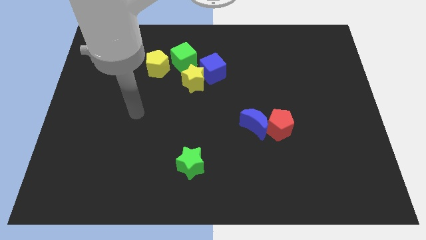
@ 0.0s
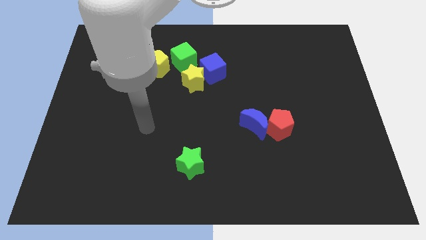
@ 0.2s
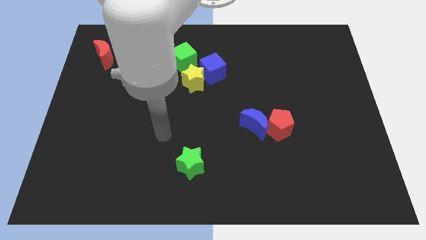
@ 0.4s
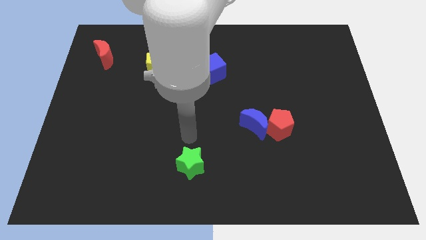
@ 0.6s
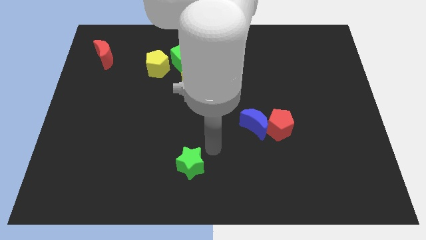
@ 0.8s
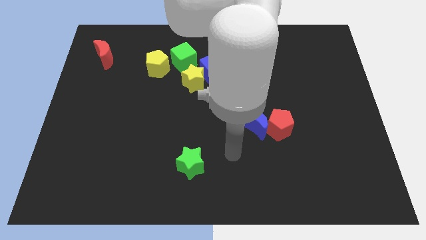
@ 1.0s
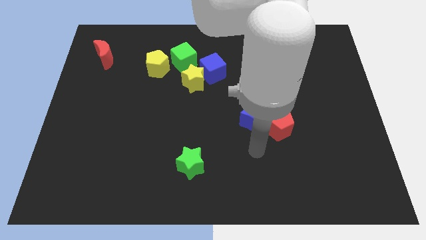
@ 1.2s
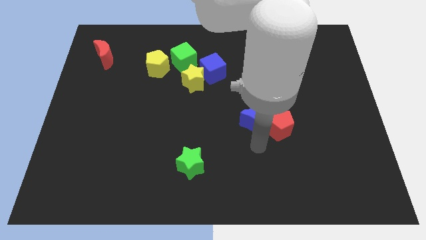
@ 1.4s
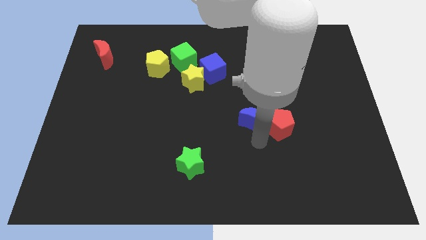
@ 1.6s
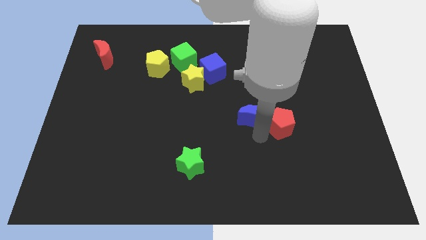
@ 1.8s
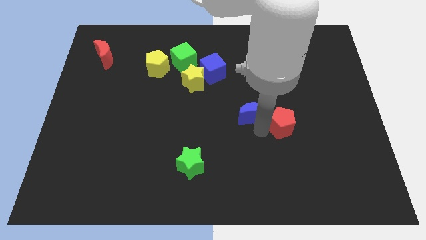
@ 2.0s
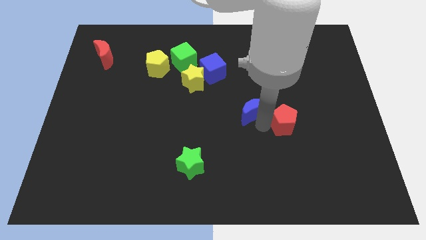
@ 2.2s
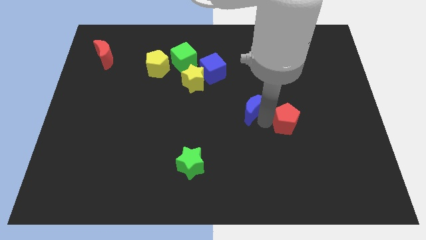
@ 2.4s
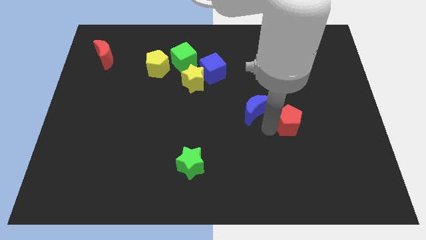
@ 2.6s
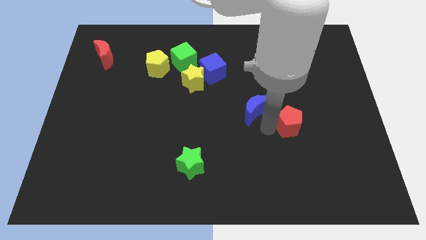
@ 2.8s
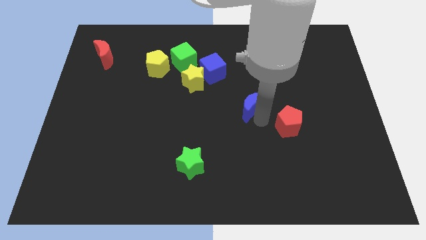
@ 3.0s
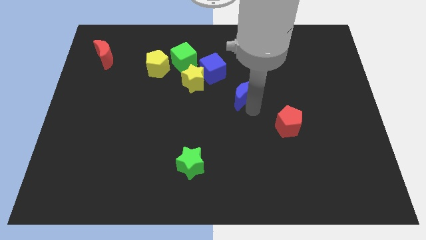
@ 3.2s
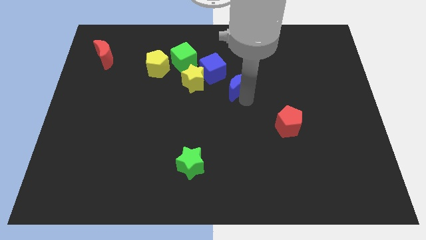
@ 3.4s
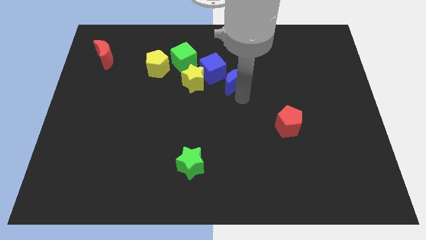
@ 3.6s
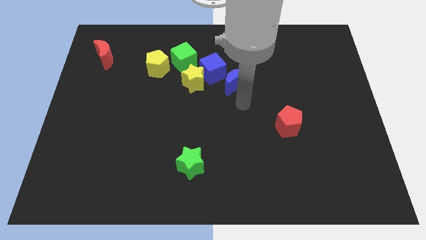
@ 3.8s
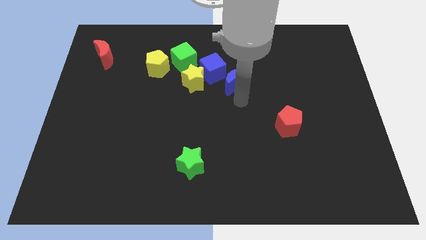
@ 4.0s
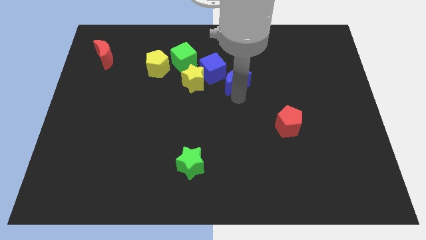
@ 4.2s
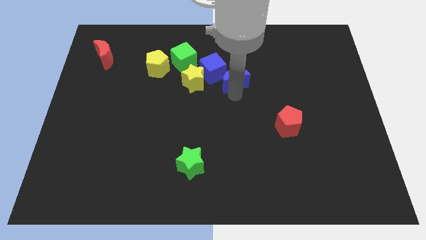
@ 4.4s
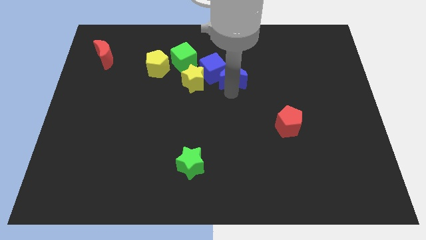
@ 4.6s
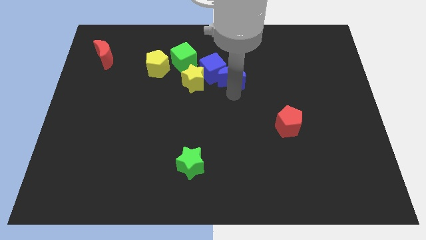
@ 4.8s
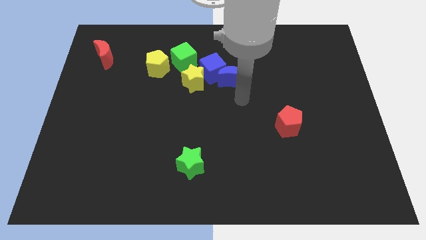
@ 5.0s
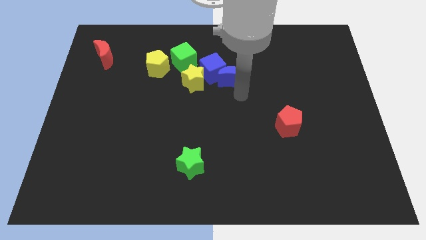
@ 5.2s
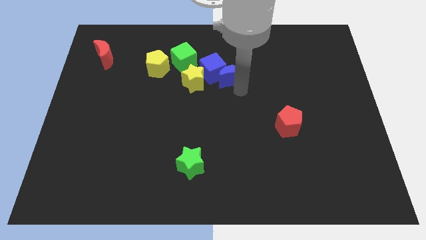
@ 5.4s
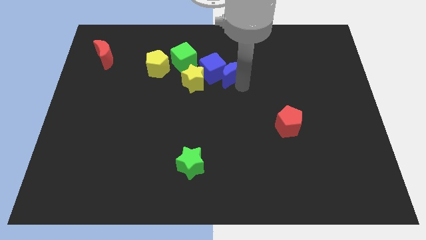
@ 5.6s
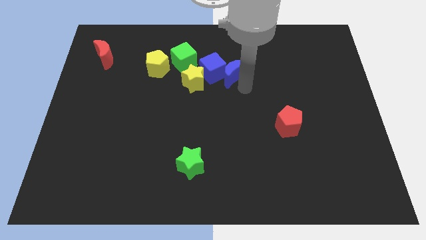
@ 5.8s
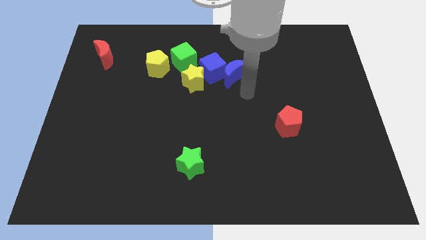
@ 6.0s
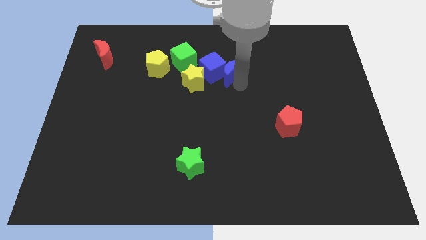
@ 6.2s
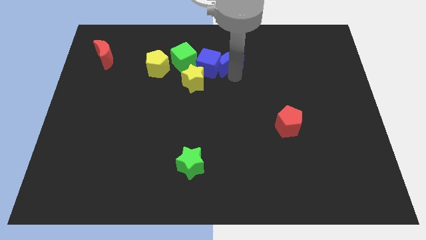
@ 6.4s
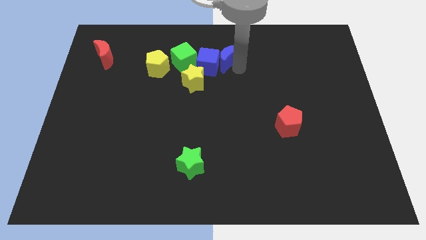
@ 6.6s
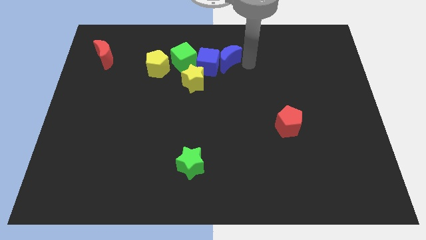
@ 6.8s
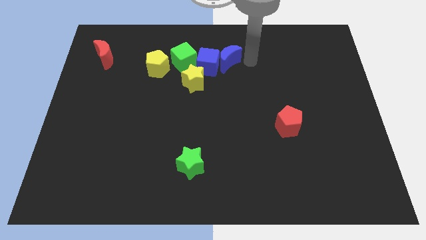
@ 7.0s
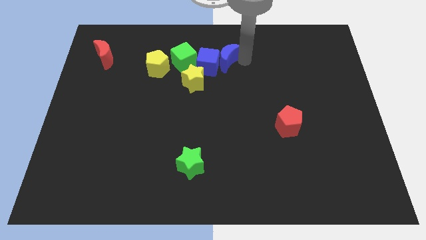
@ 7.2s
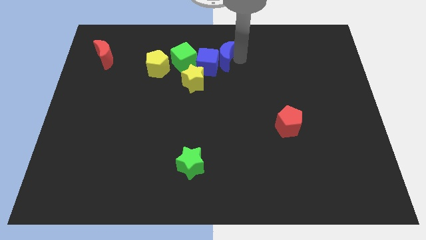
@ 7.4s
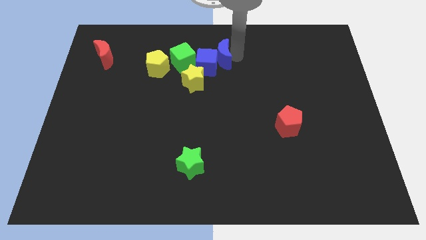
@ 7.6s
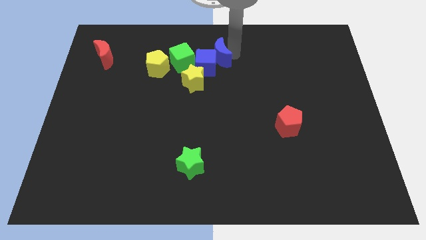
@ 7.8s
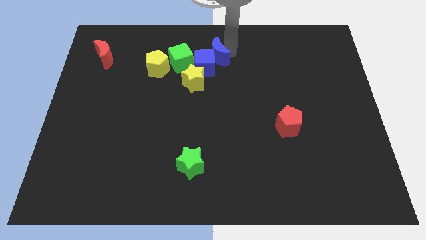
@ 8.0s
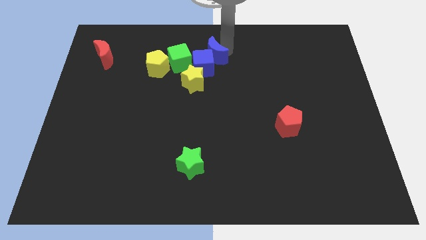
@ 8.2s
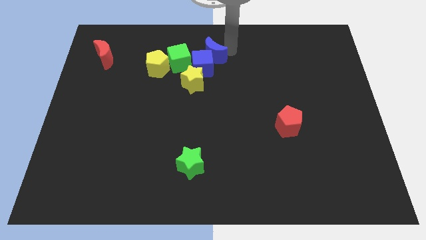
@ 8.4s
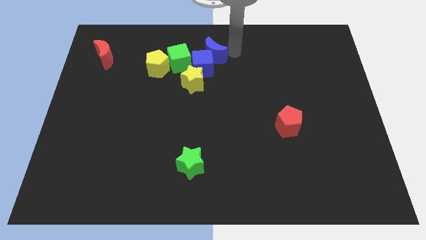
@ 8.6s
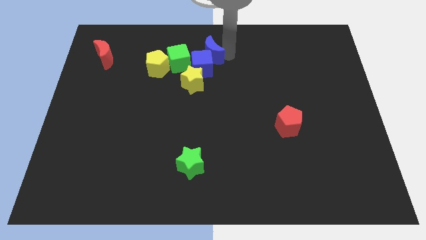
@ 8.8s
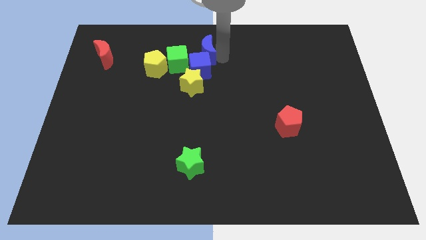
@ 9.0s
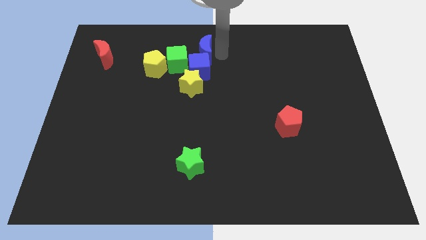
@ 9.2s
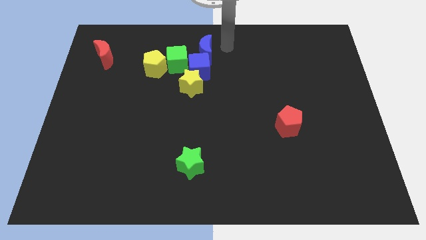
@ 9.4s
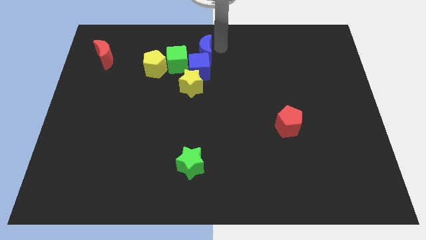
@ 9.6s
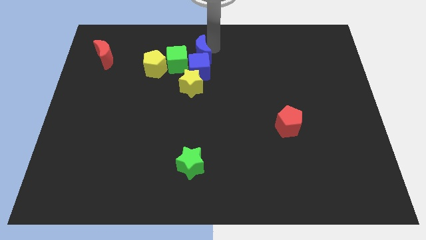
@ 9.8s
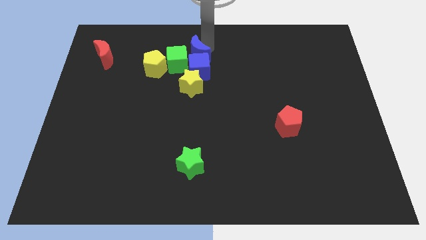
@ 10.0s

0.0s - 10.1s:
move the blue moon to the green cube

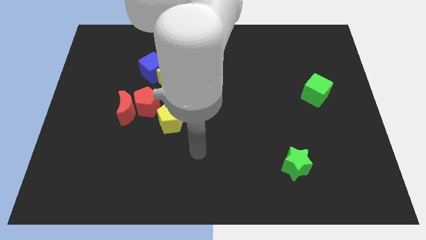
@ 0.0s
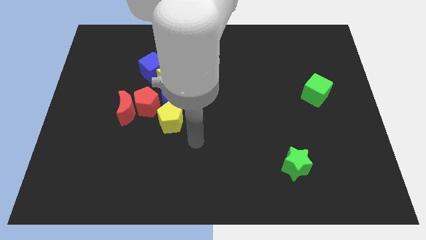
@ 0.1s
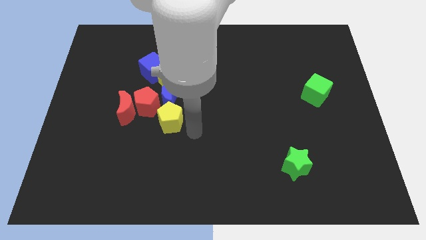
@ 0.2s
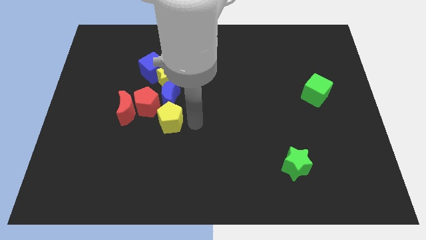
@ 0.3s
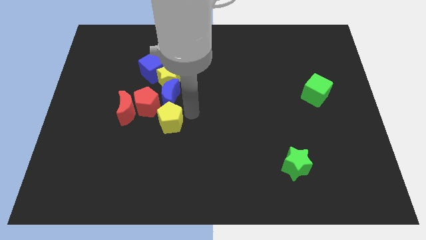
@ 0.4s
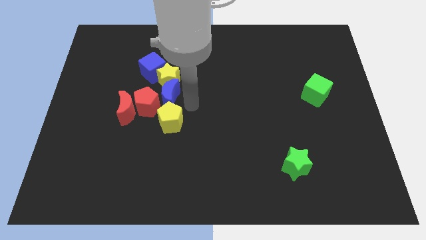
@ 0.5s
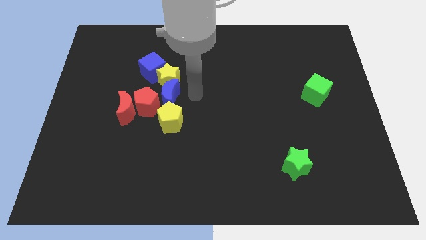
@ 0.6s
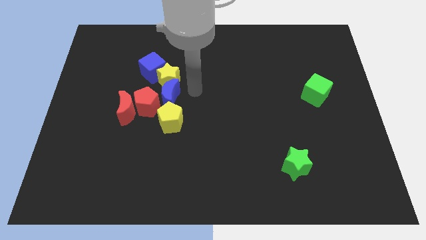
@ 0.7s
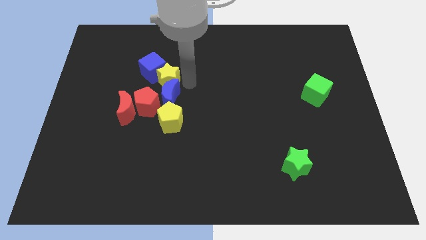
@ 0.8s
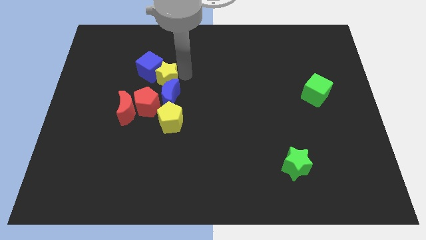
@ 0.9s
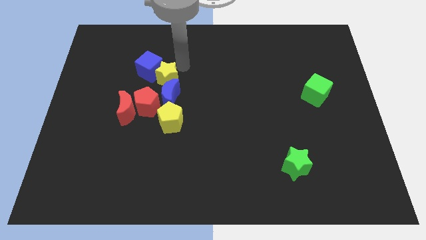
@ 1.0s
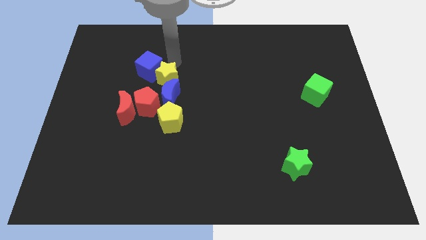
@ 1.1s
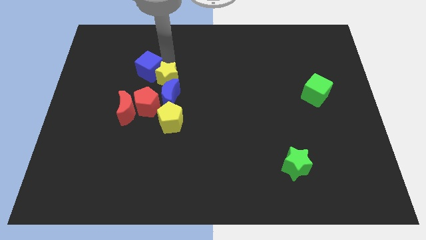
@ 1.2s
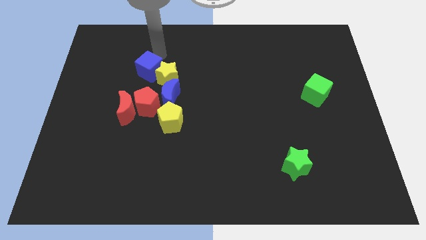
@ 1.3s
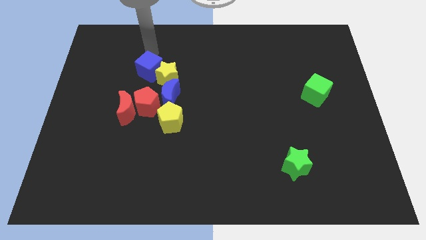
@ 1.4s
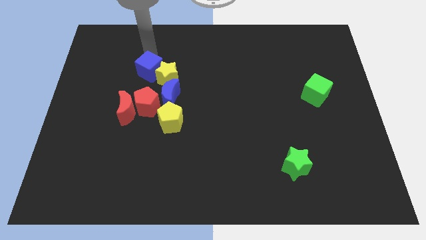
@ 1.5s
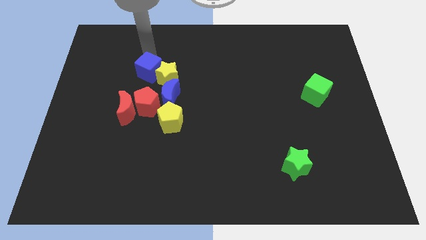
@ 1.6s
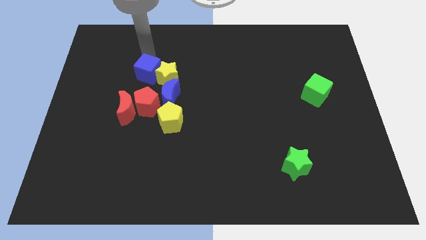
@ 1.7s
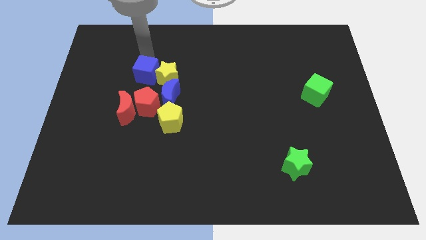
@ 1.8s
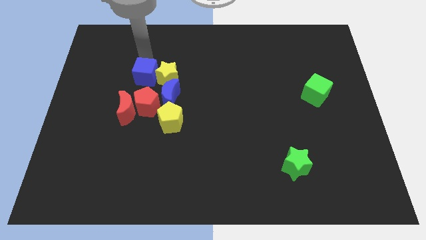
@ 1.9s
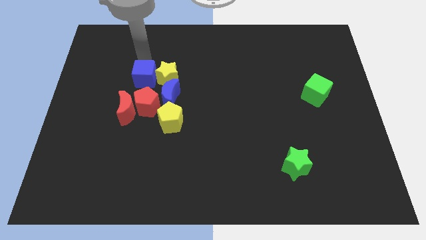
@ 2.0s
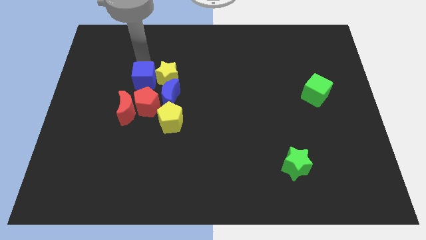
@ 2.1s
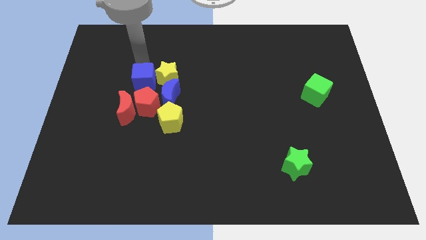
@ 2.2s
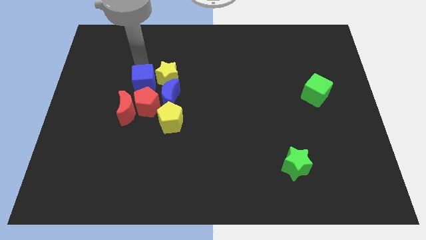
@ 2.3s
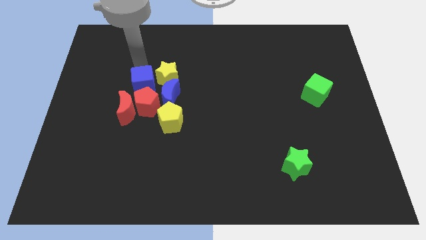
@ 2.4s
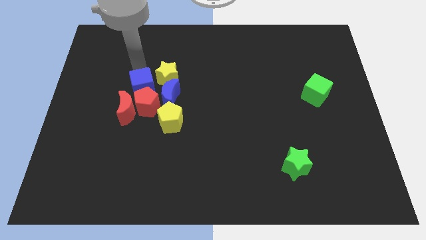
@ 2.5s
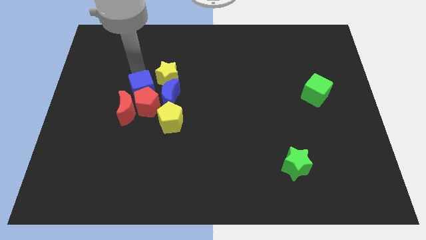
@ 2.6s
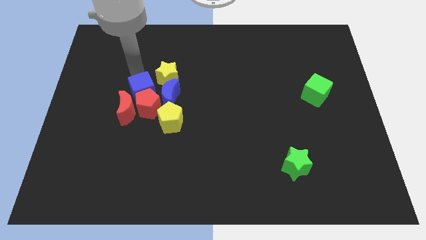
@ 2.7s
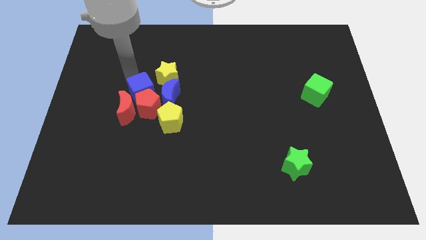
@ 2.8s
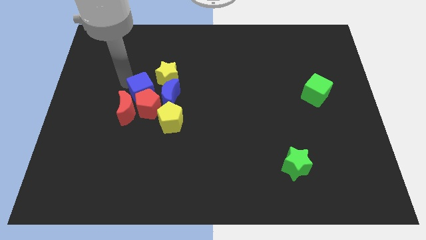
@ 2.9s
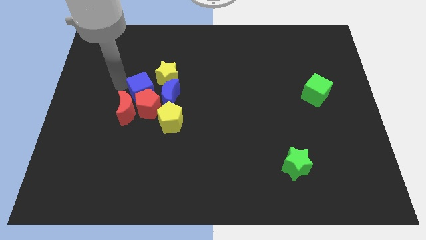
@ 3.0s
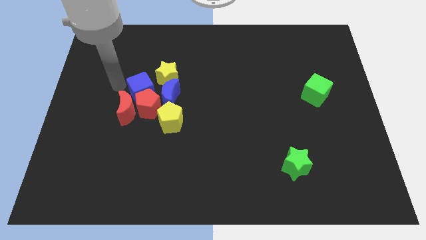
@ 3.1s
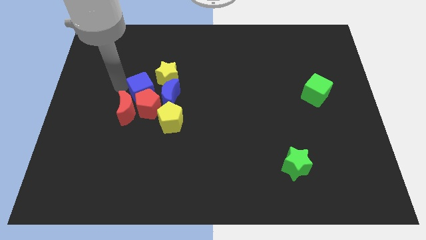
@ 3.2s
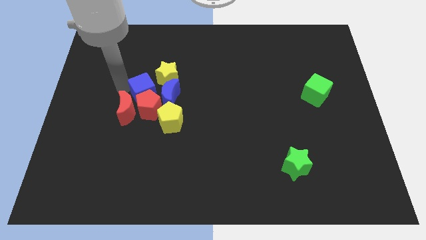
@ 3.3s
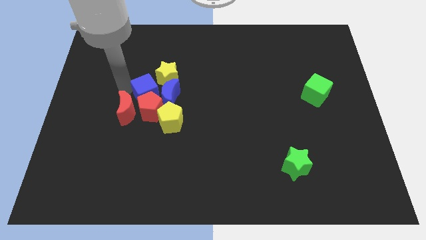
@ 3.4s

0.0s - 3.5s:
move the blue cube close to the blue moon
